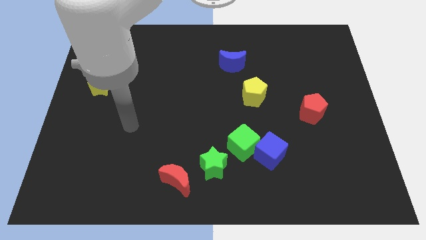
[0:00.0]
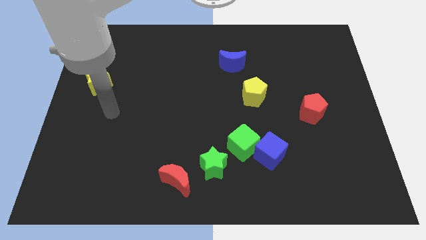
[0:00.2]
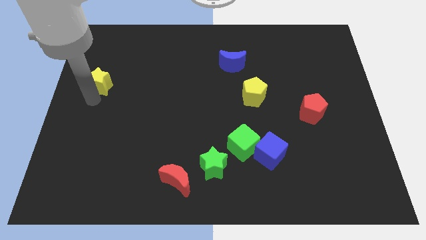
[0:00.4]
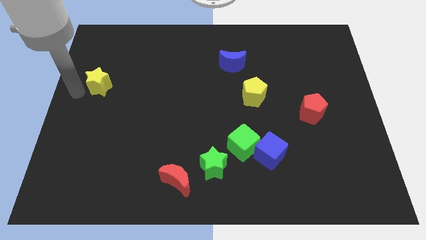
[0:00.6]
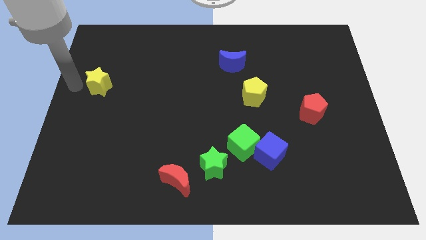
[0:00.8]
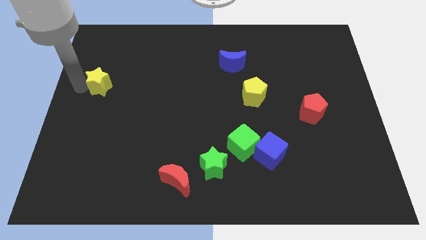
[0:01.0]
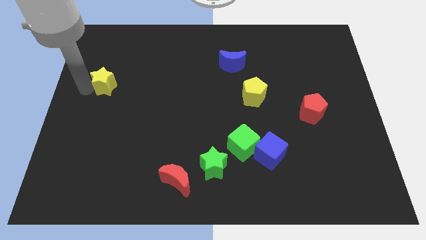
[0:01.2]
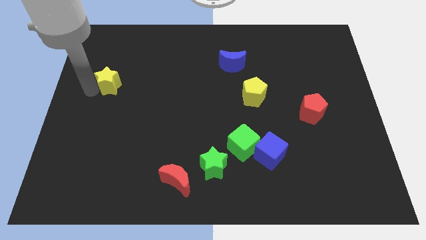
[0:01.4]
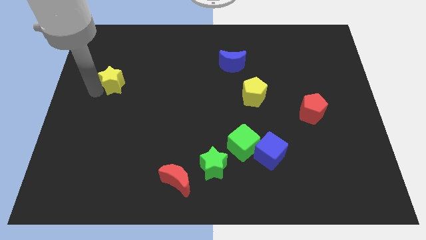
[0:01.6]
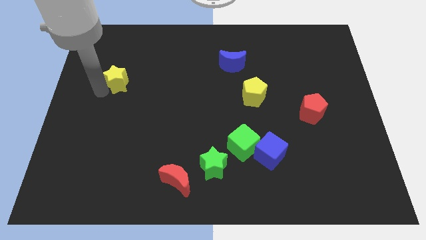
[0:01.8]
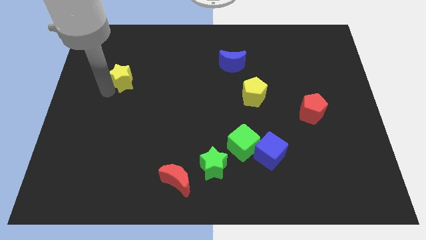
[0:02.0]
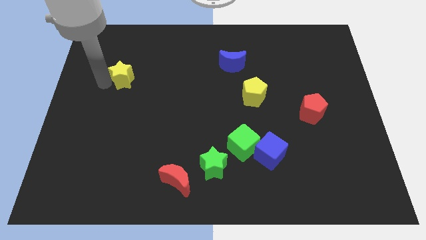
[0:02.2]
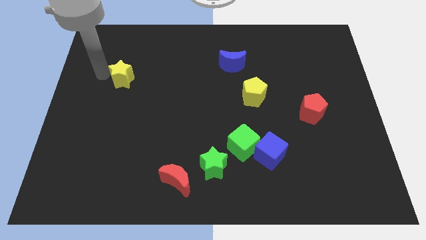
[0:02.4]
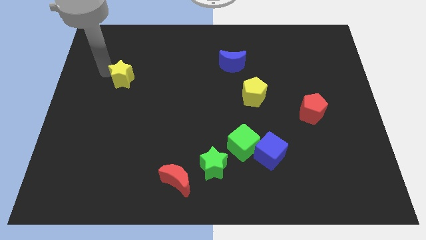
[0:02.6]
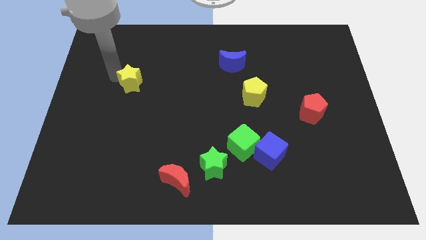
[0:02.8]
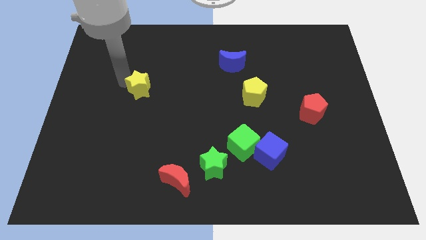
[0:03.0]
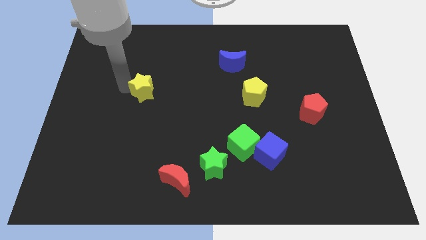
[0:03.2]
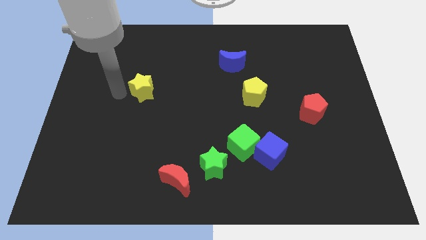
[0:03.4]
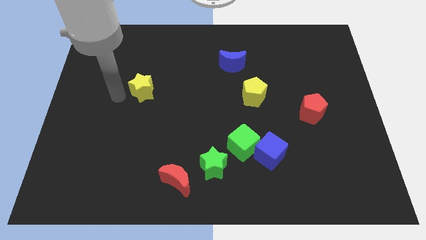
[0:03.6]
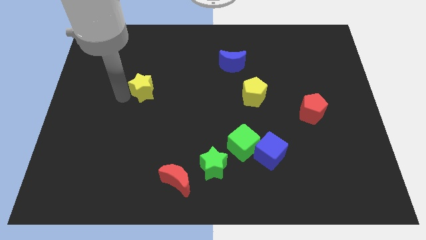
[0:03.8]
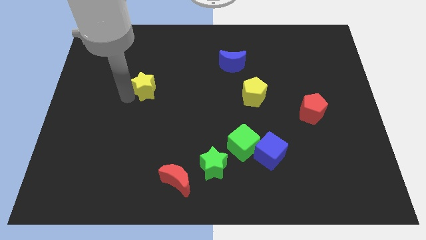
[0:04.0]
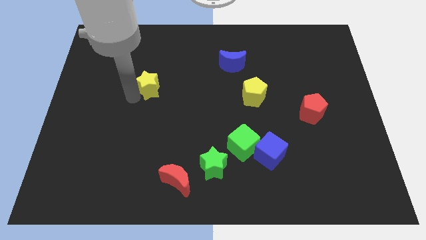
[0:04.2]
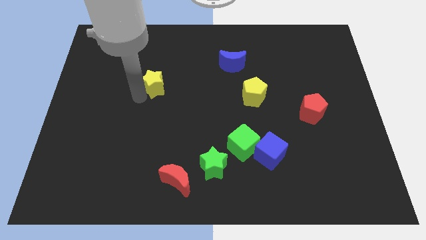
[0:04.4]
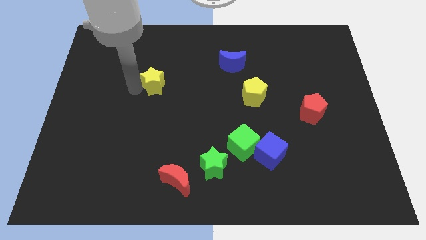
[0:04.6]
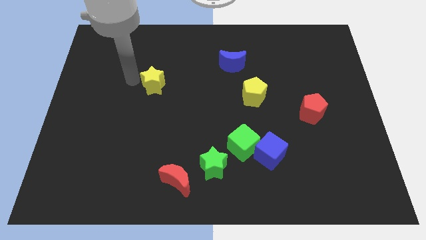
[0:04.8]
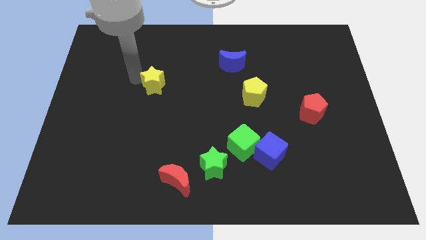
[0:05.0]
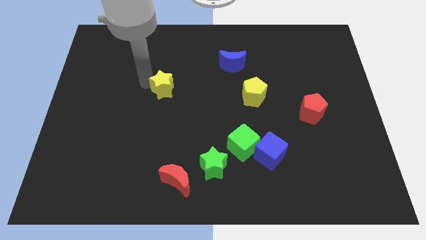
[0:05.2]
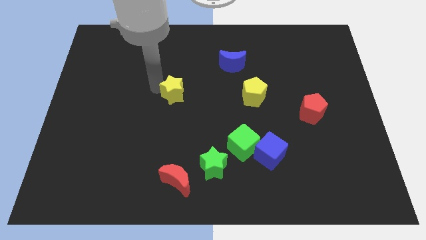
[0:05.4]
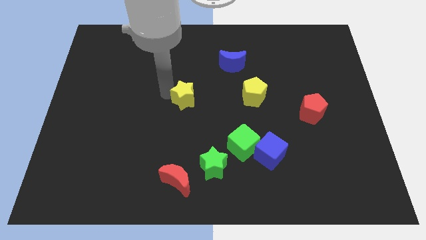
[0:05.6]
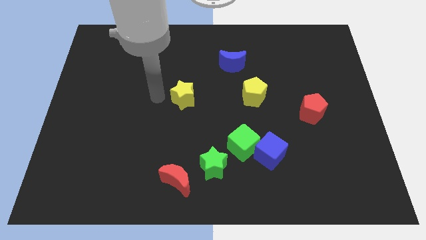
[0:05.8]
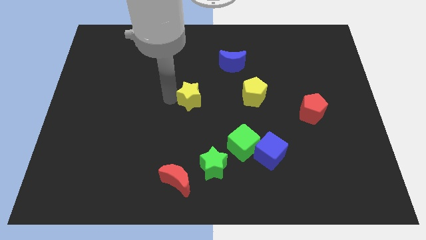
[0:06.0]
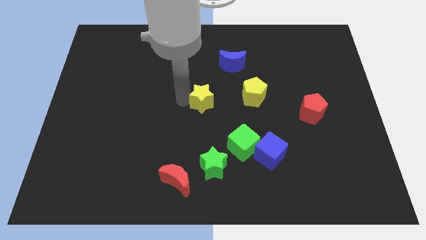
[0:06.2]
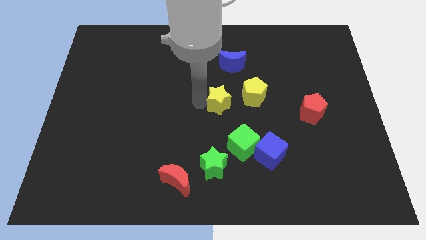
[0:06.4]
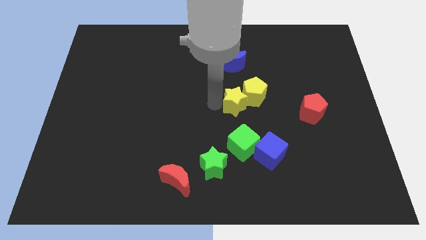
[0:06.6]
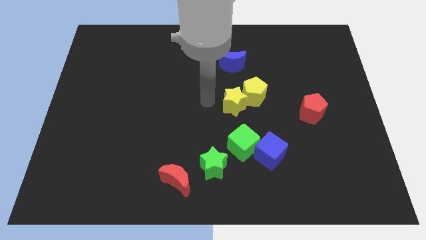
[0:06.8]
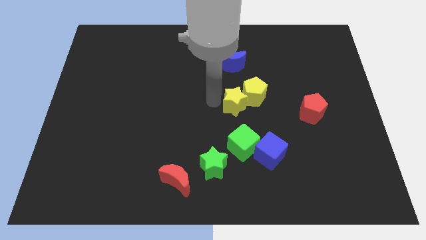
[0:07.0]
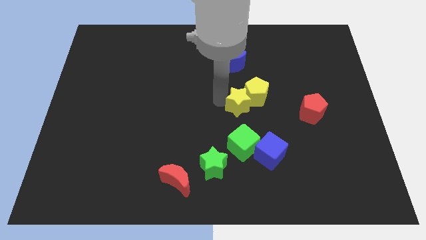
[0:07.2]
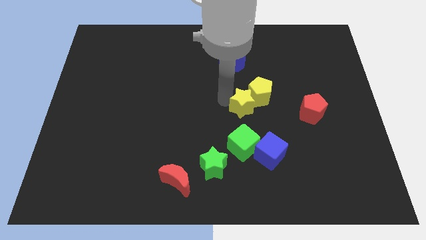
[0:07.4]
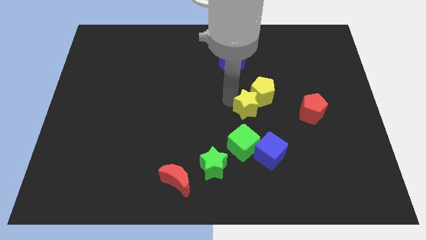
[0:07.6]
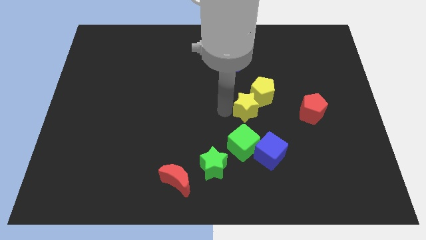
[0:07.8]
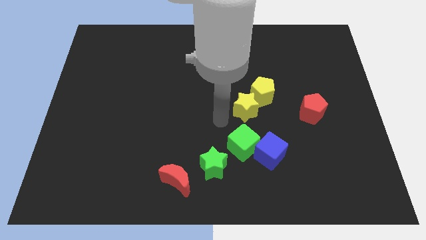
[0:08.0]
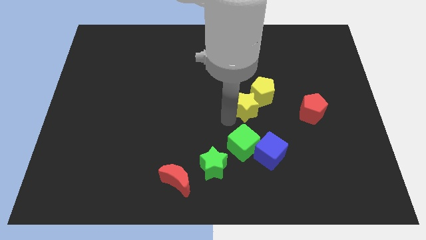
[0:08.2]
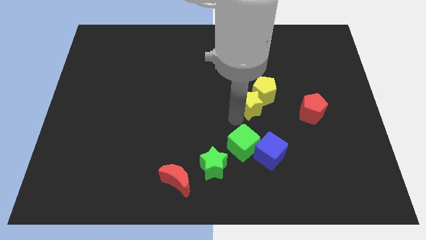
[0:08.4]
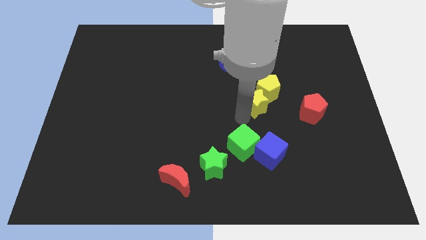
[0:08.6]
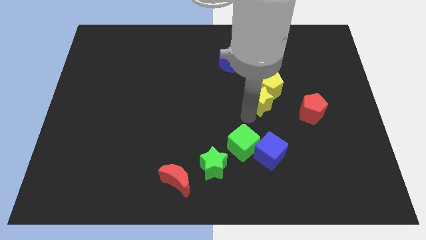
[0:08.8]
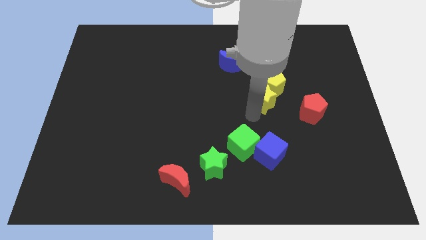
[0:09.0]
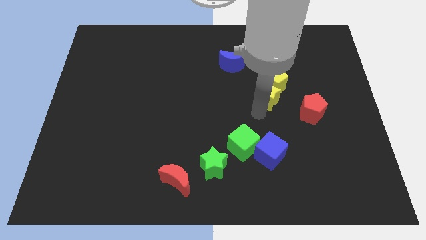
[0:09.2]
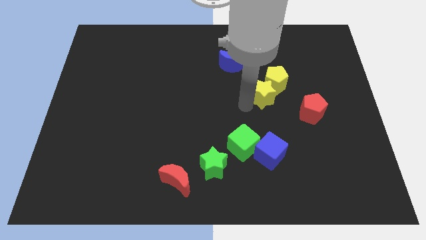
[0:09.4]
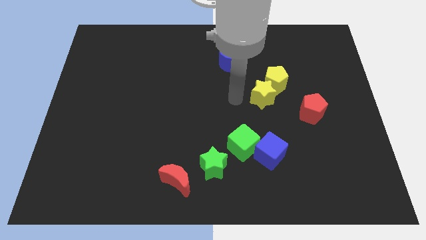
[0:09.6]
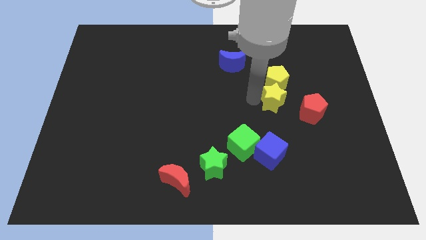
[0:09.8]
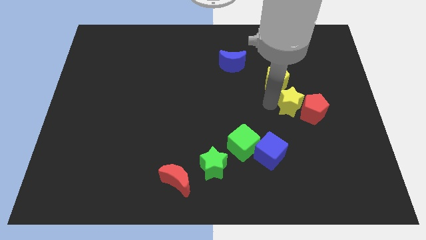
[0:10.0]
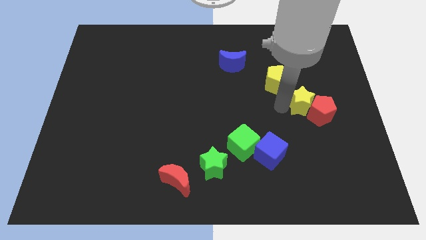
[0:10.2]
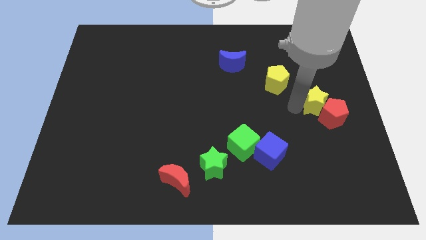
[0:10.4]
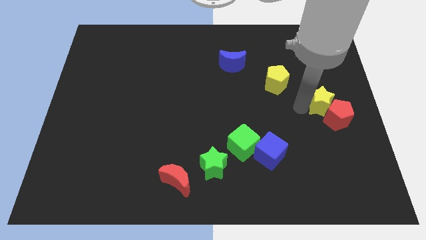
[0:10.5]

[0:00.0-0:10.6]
slide the yellow star to the right side of the board

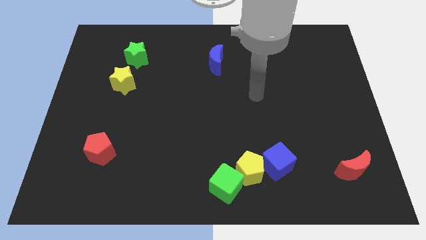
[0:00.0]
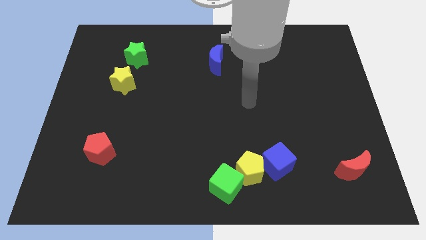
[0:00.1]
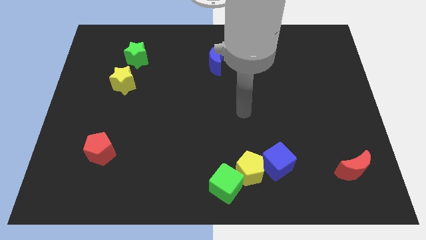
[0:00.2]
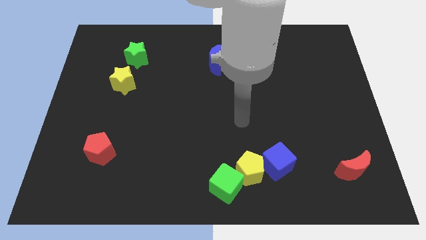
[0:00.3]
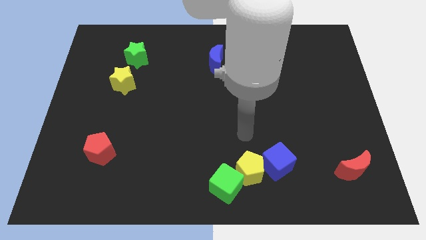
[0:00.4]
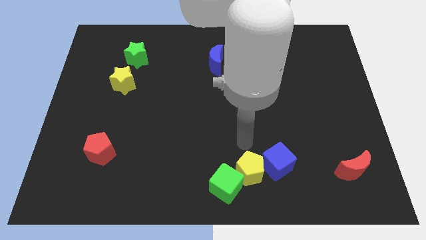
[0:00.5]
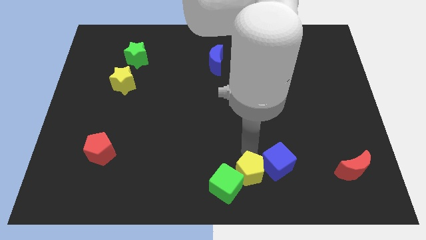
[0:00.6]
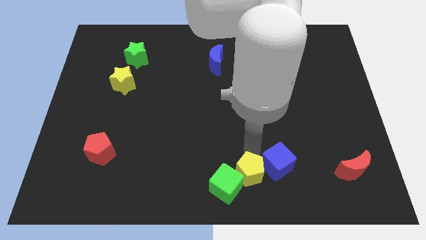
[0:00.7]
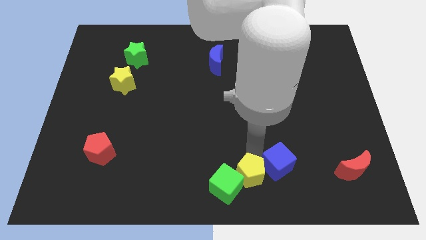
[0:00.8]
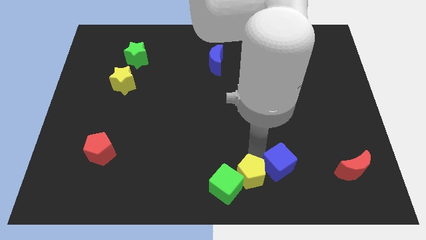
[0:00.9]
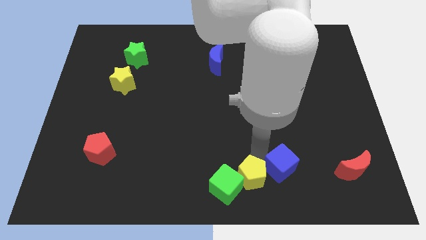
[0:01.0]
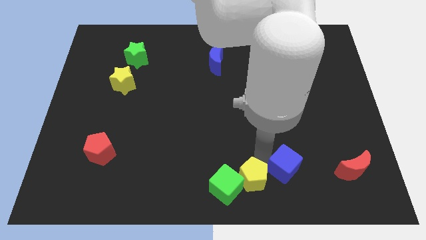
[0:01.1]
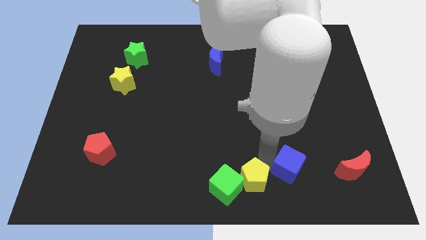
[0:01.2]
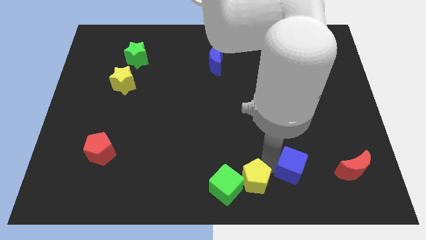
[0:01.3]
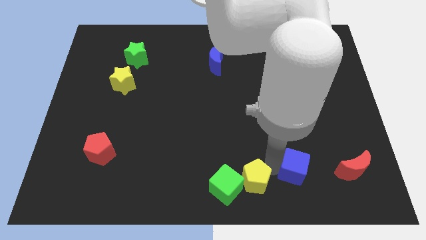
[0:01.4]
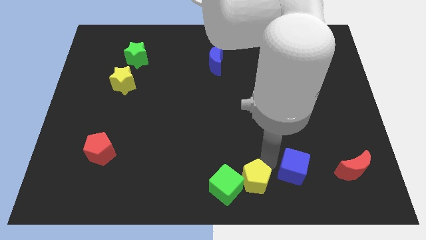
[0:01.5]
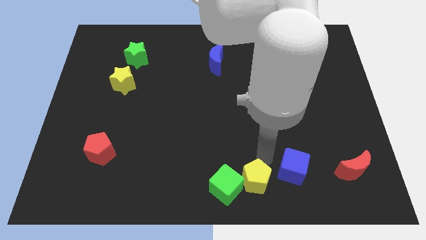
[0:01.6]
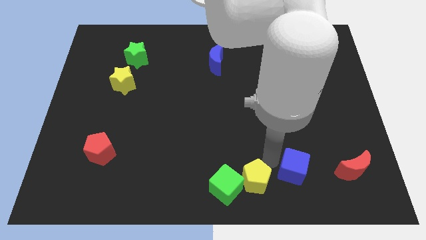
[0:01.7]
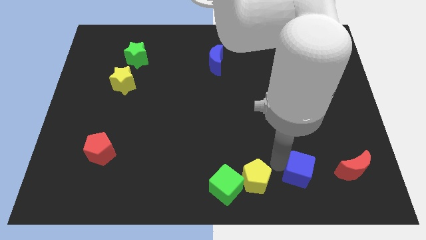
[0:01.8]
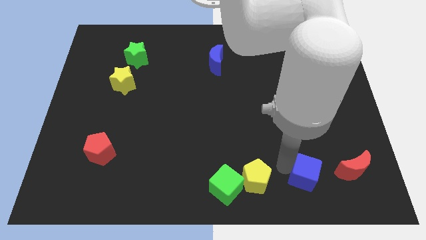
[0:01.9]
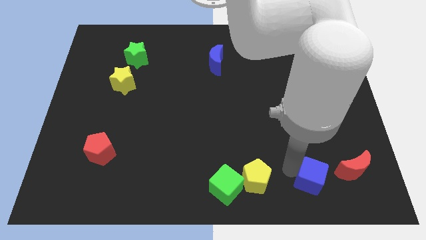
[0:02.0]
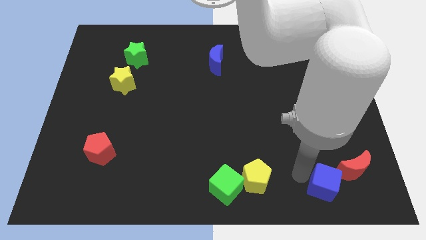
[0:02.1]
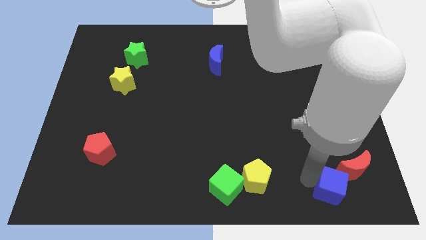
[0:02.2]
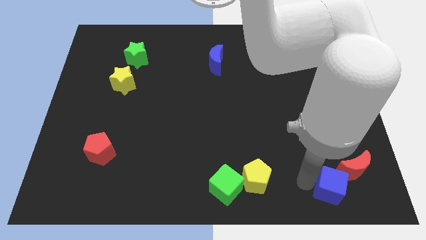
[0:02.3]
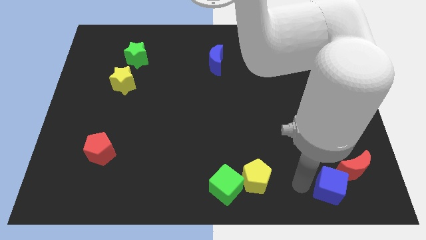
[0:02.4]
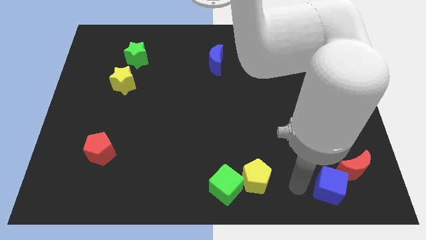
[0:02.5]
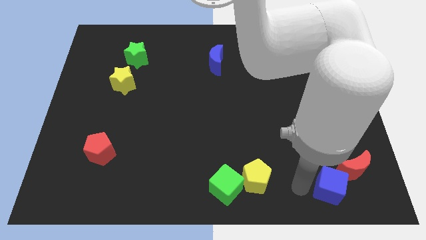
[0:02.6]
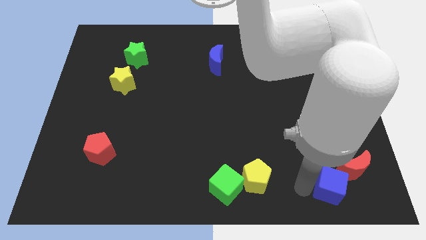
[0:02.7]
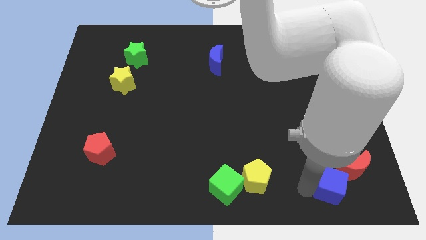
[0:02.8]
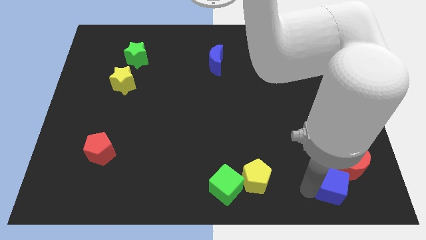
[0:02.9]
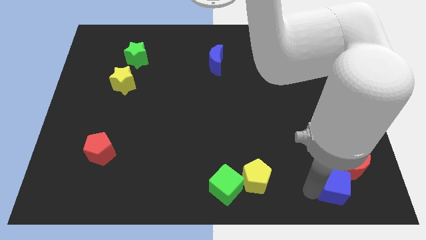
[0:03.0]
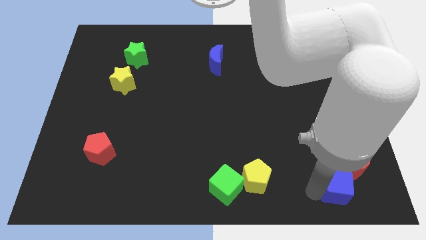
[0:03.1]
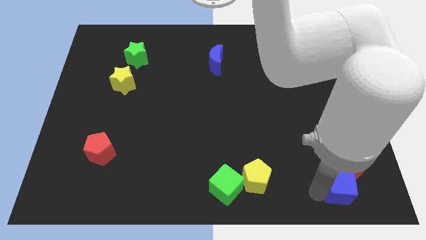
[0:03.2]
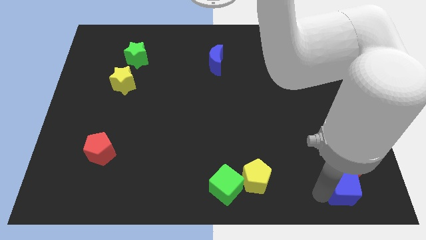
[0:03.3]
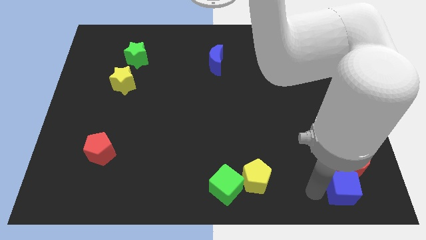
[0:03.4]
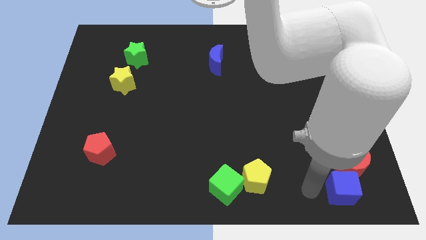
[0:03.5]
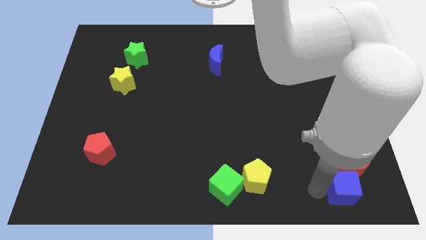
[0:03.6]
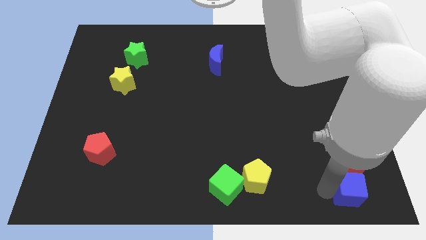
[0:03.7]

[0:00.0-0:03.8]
push the blue cube to the bottom right of the board
